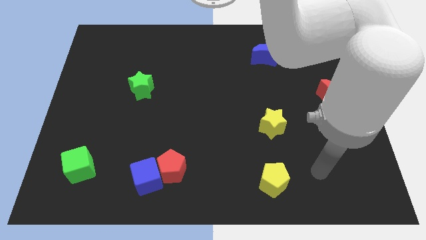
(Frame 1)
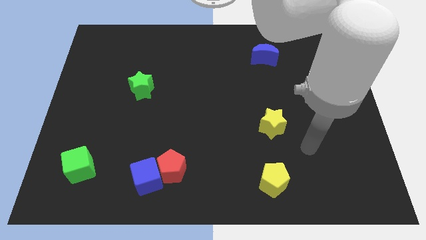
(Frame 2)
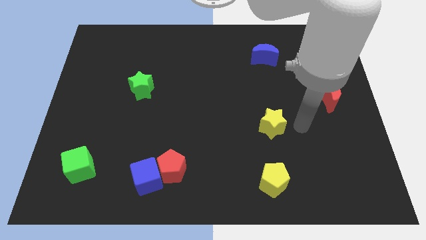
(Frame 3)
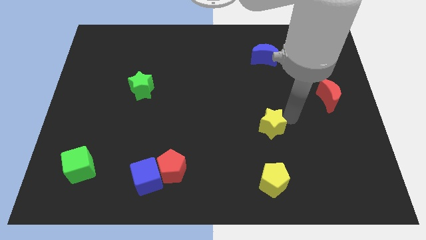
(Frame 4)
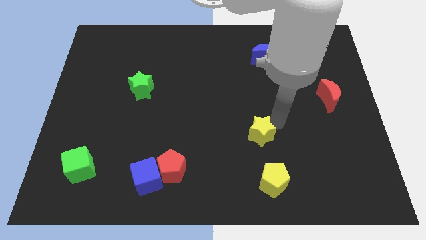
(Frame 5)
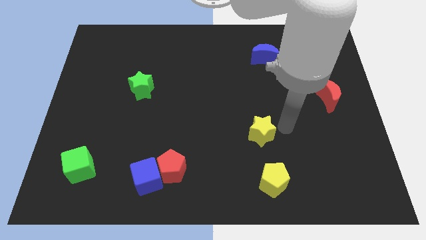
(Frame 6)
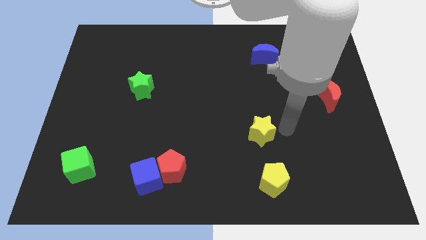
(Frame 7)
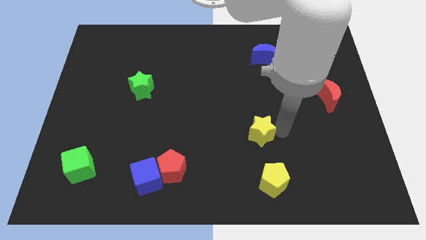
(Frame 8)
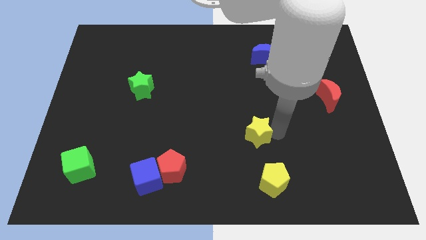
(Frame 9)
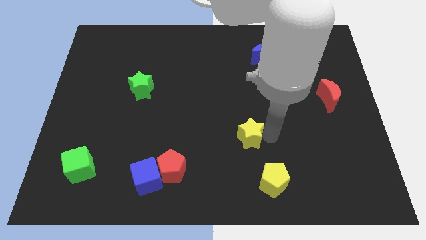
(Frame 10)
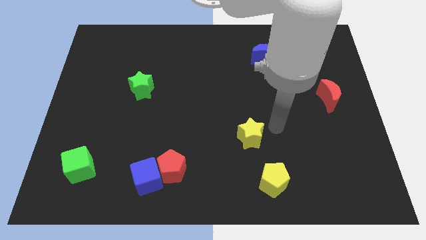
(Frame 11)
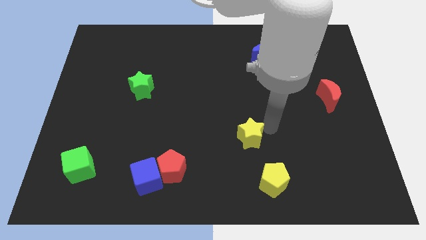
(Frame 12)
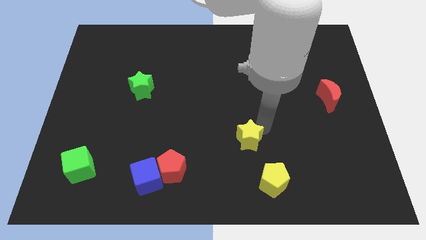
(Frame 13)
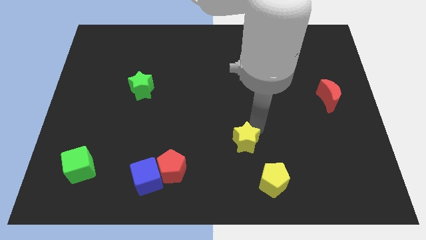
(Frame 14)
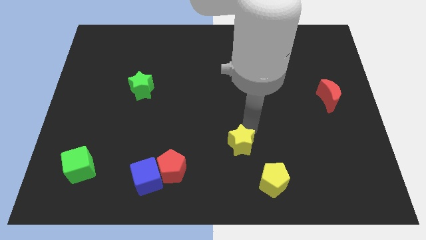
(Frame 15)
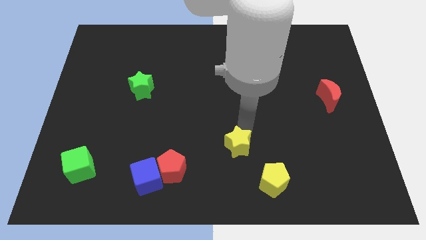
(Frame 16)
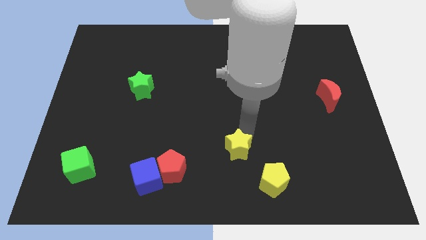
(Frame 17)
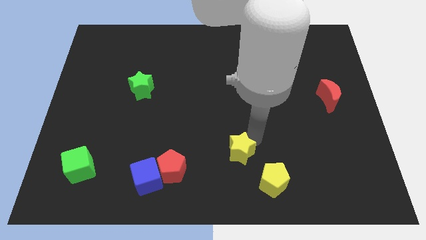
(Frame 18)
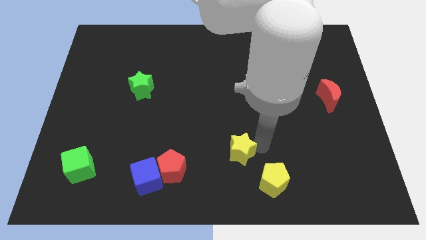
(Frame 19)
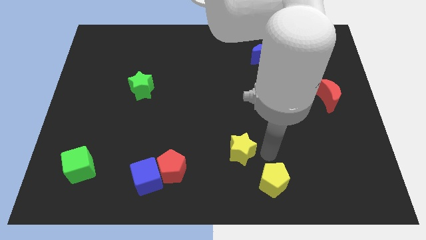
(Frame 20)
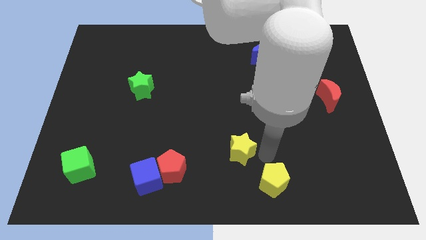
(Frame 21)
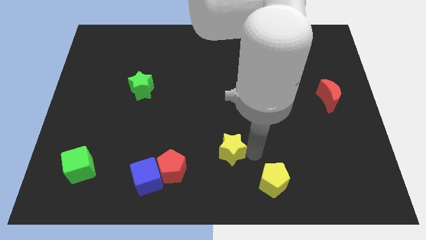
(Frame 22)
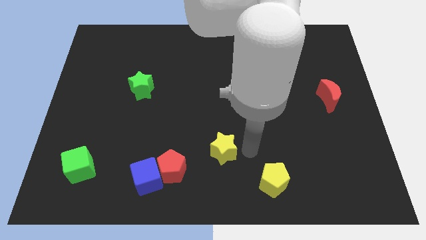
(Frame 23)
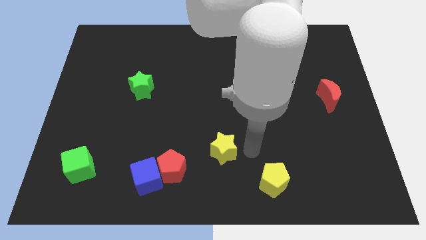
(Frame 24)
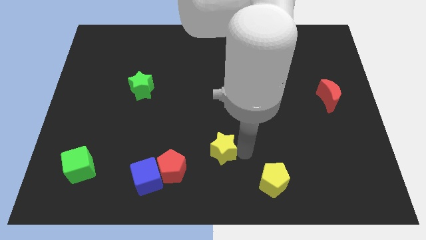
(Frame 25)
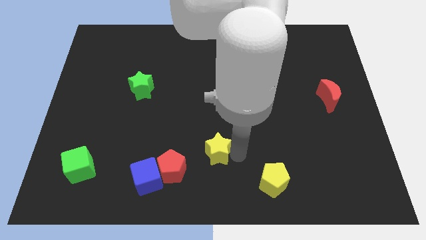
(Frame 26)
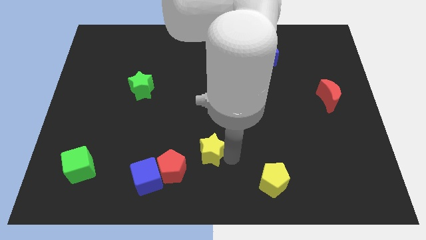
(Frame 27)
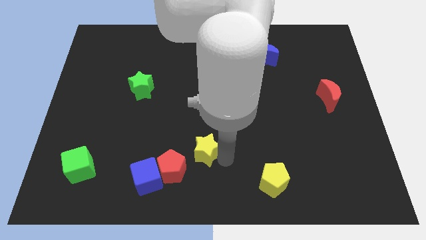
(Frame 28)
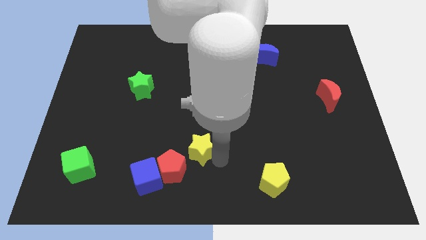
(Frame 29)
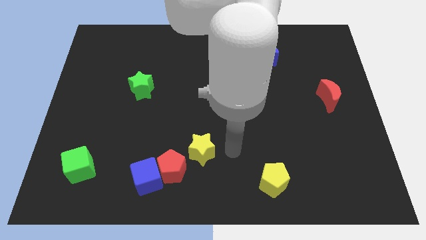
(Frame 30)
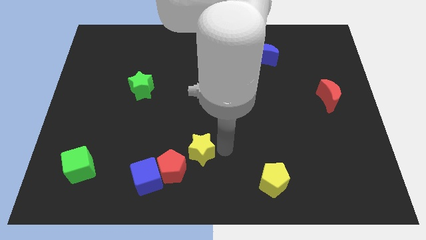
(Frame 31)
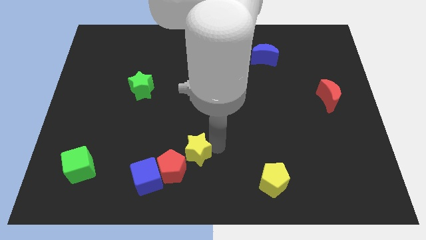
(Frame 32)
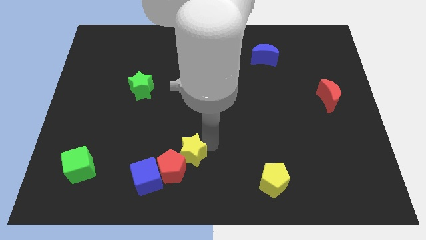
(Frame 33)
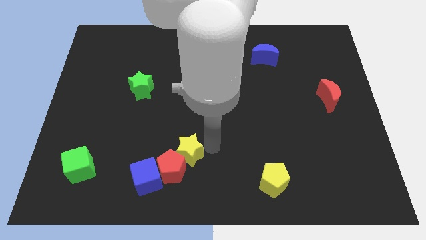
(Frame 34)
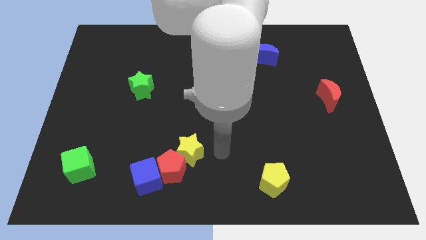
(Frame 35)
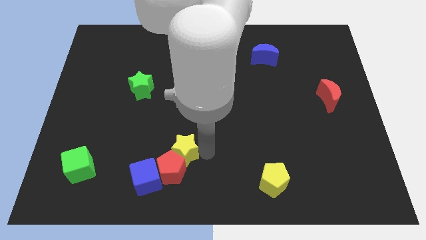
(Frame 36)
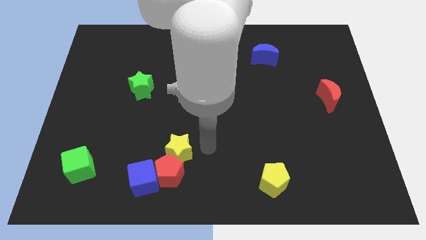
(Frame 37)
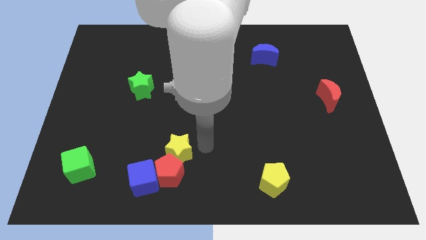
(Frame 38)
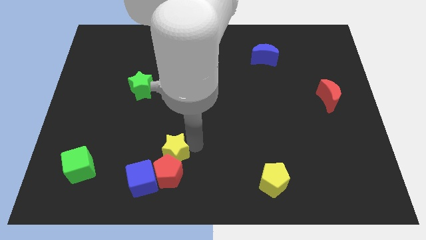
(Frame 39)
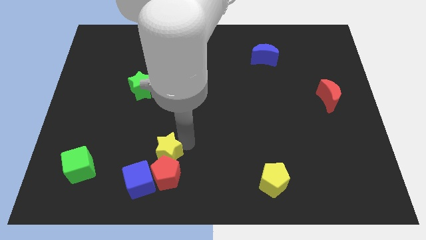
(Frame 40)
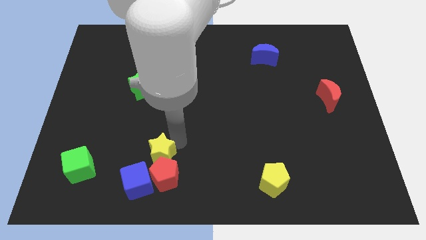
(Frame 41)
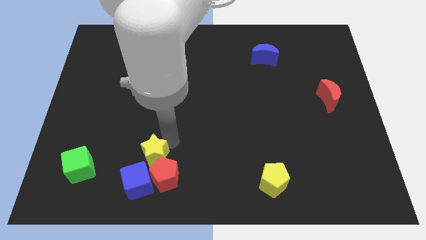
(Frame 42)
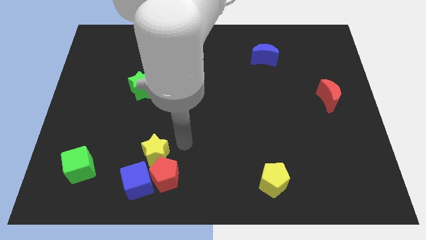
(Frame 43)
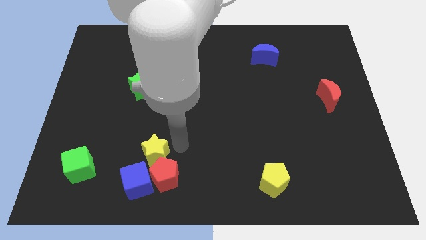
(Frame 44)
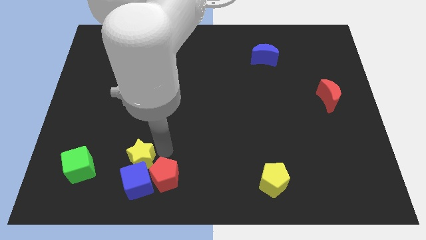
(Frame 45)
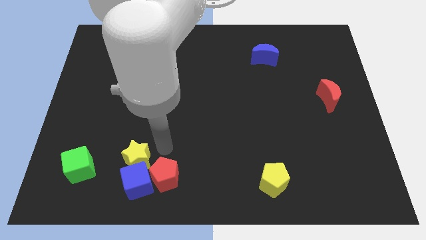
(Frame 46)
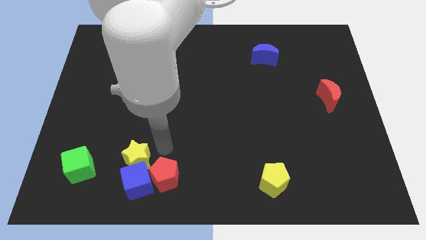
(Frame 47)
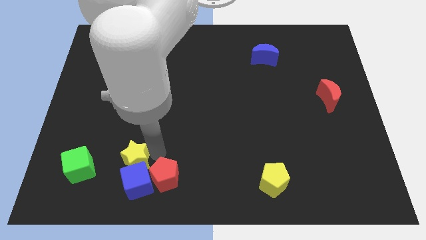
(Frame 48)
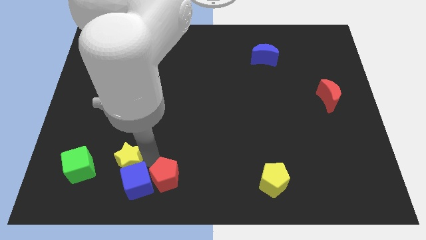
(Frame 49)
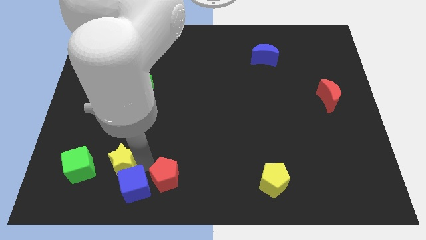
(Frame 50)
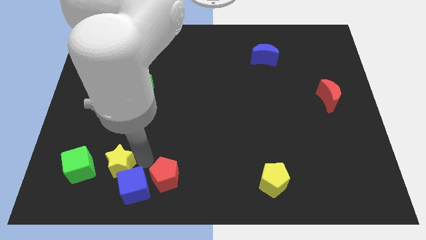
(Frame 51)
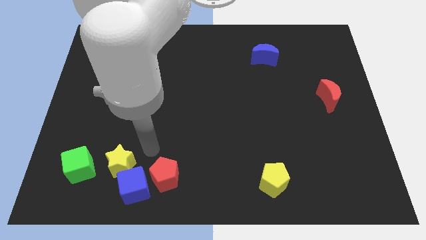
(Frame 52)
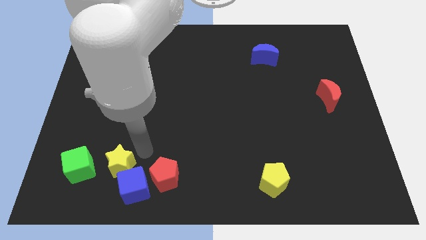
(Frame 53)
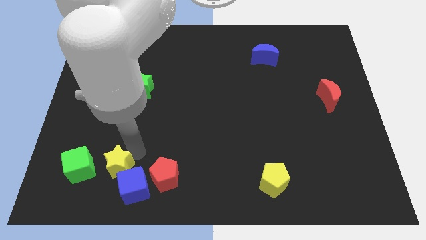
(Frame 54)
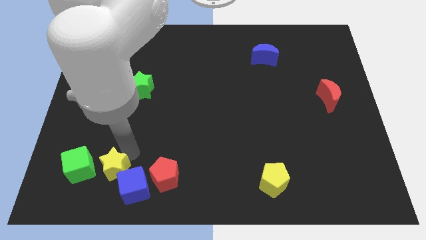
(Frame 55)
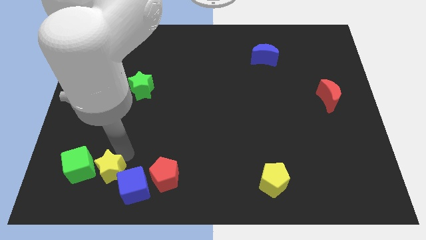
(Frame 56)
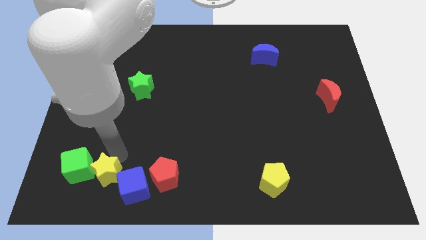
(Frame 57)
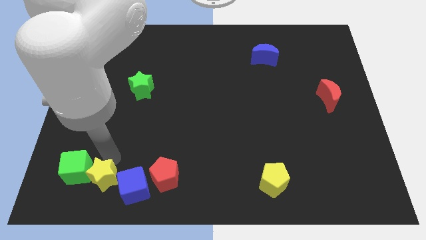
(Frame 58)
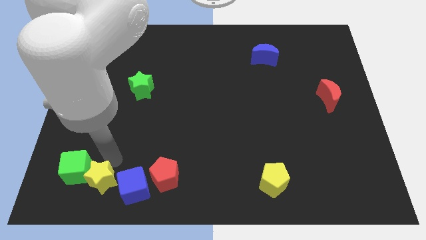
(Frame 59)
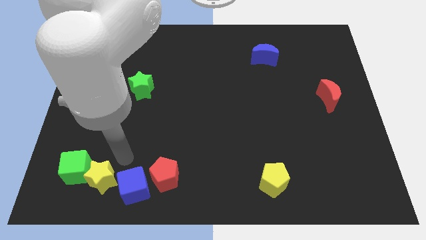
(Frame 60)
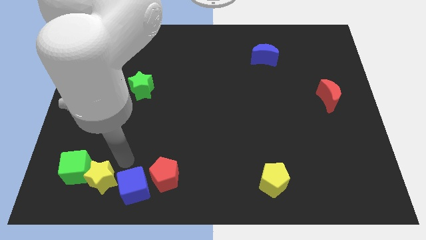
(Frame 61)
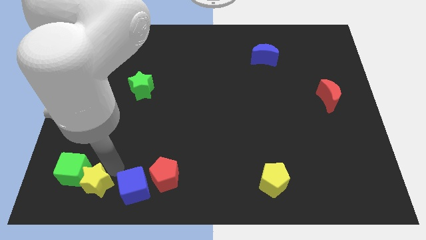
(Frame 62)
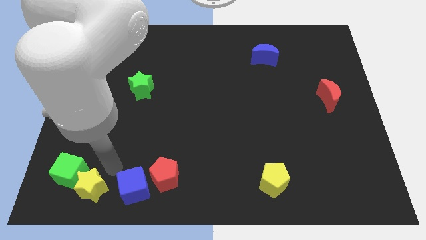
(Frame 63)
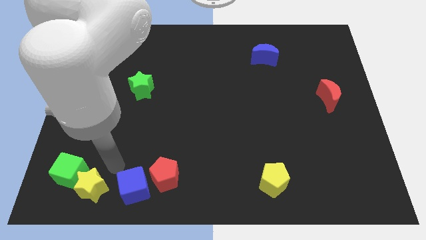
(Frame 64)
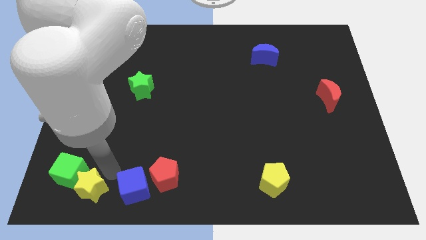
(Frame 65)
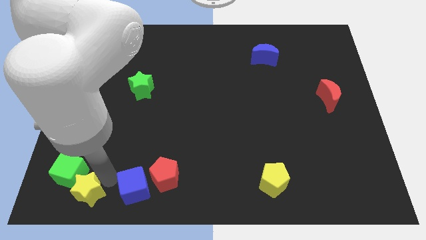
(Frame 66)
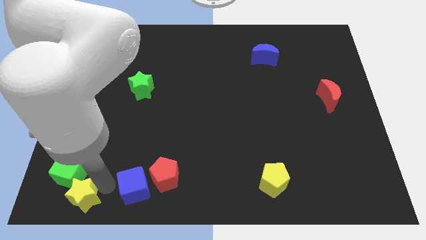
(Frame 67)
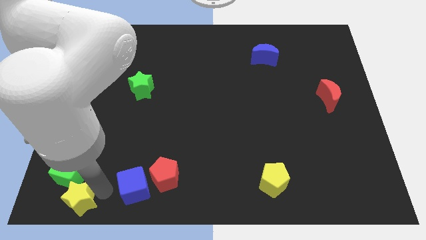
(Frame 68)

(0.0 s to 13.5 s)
push the yellow star to the bottom left of the board
